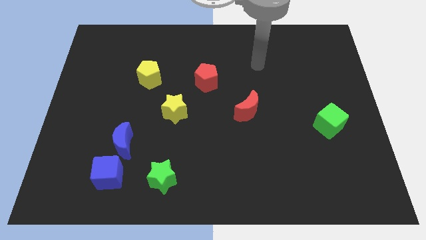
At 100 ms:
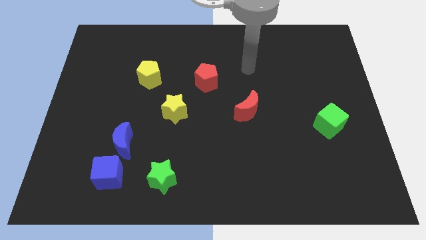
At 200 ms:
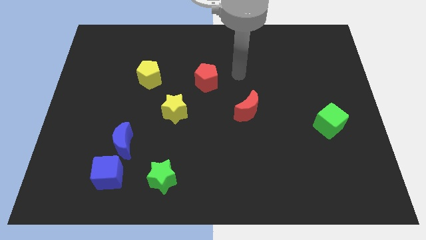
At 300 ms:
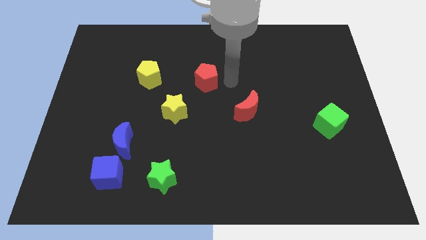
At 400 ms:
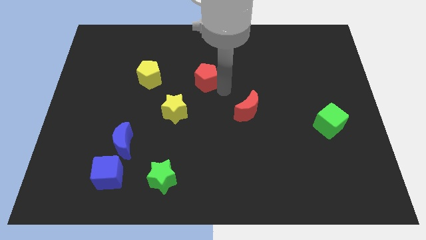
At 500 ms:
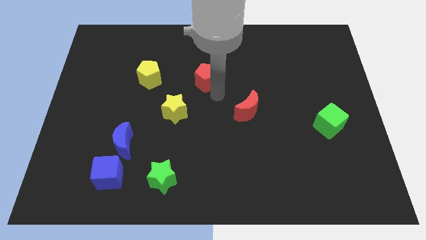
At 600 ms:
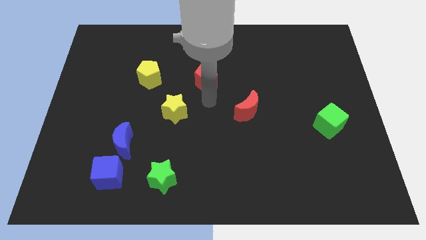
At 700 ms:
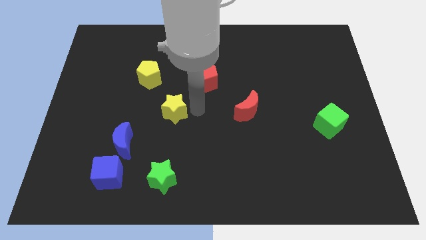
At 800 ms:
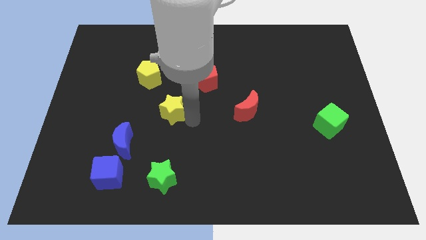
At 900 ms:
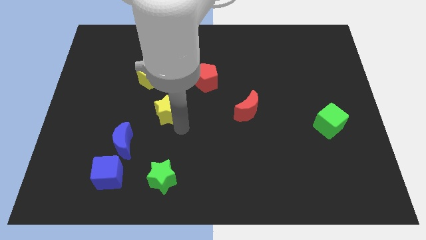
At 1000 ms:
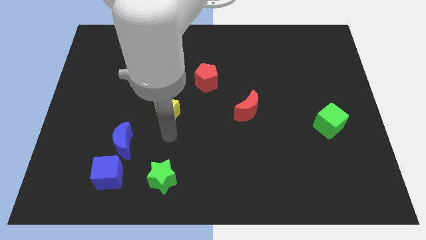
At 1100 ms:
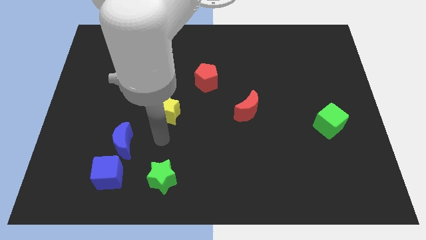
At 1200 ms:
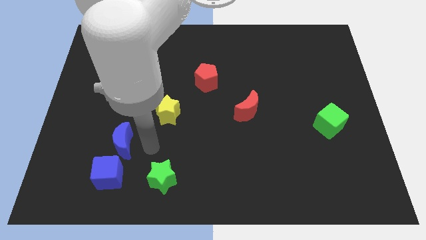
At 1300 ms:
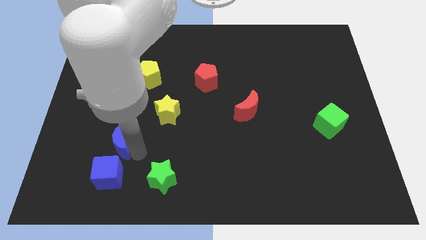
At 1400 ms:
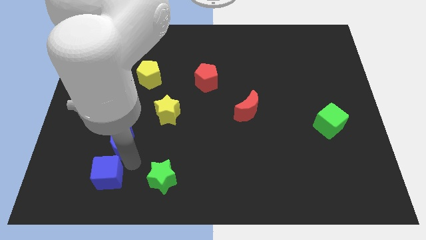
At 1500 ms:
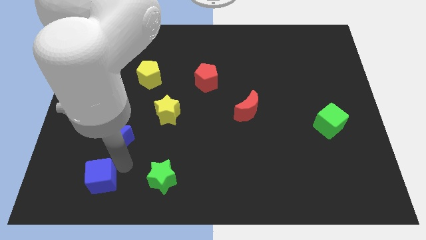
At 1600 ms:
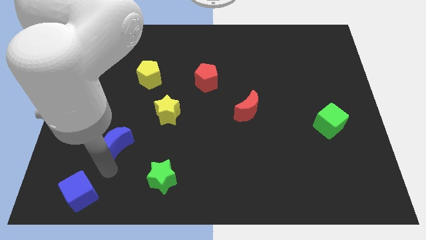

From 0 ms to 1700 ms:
pull the blue moon apart from the blue cube

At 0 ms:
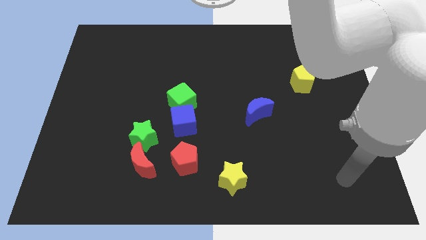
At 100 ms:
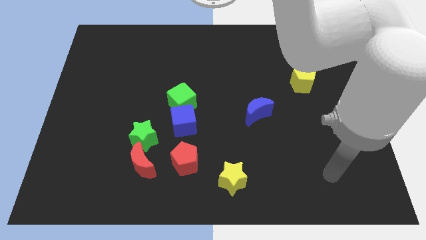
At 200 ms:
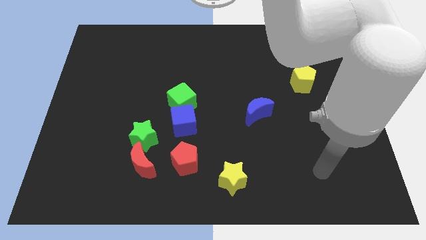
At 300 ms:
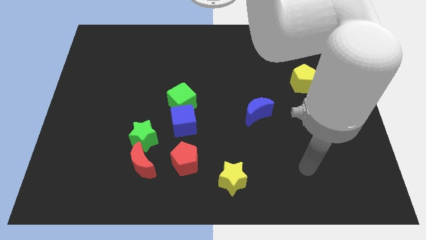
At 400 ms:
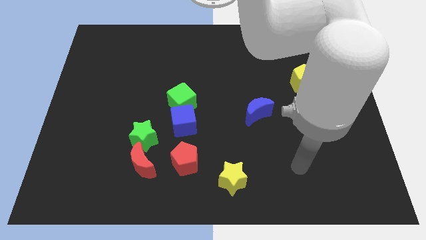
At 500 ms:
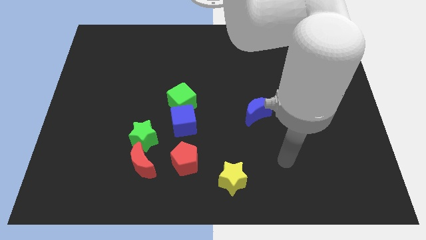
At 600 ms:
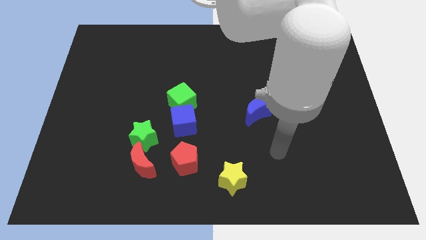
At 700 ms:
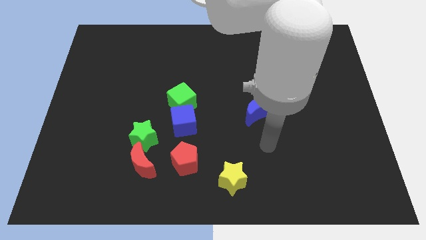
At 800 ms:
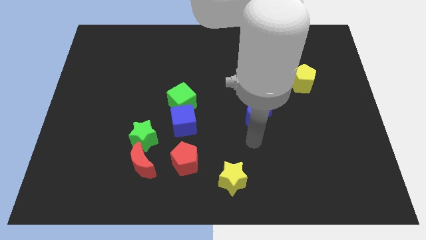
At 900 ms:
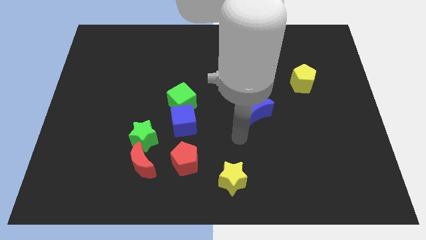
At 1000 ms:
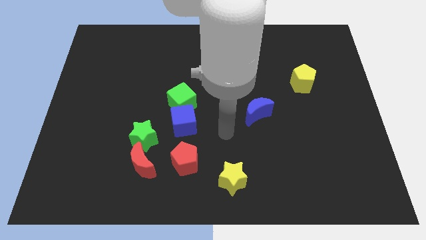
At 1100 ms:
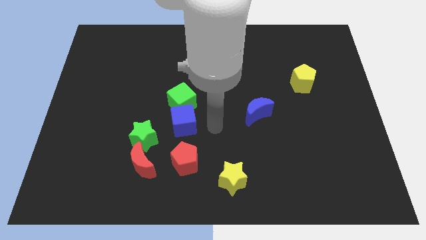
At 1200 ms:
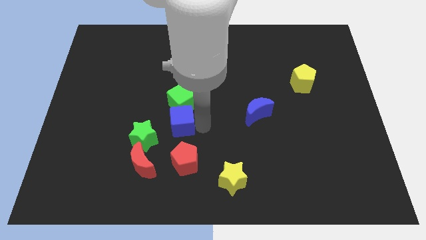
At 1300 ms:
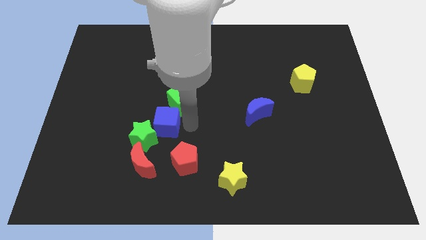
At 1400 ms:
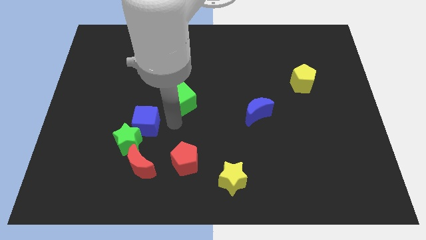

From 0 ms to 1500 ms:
pull the green cube apart from the blue cube

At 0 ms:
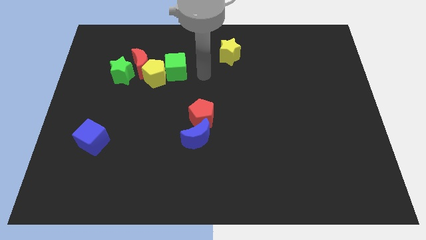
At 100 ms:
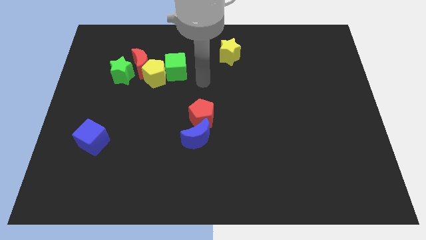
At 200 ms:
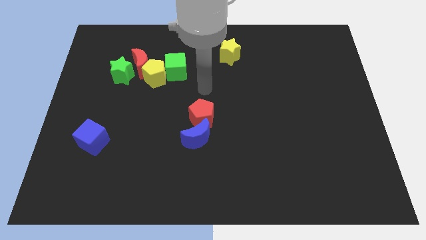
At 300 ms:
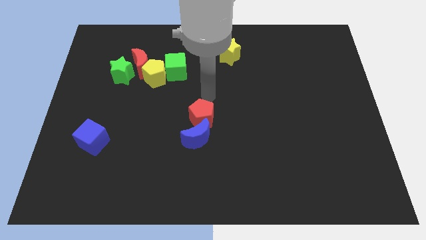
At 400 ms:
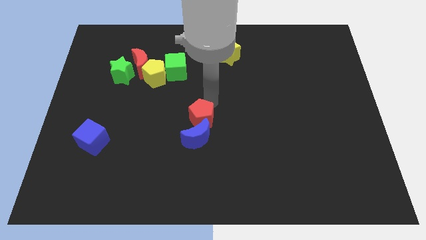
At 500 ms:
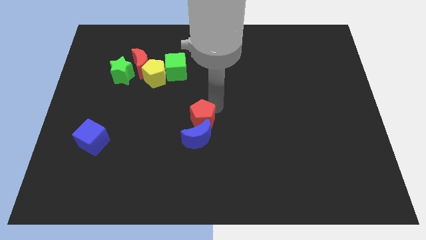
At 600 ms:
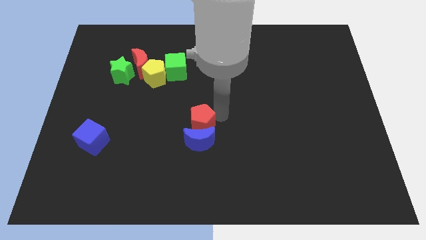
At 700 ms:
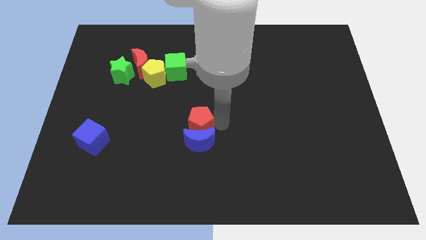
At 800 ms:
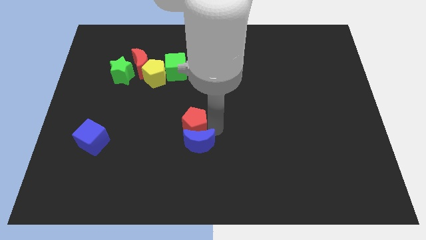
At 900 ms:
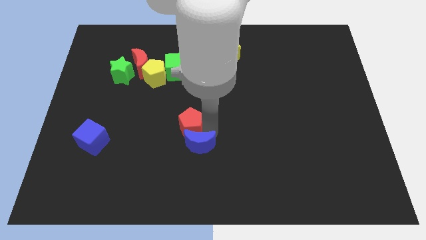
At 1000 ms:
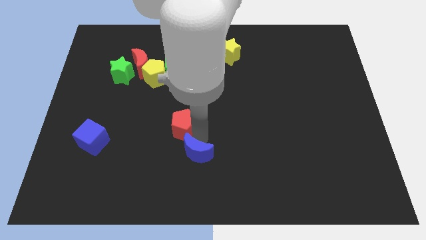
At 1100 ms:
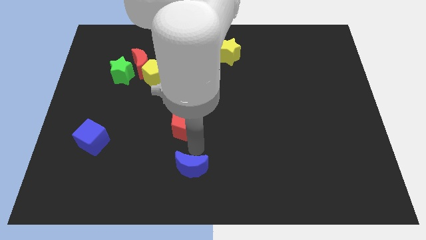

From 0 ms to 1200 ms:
pull the red pentagon apart from the blue moon

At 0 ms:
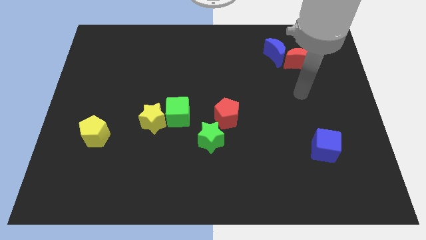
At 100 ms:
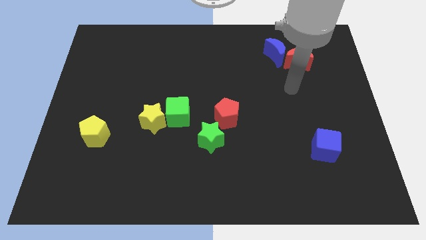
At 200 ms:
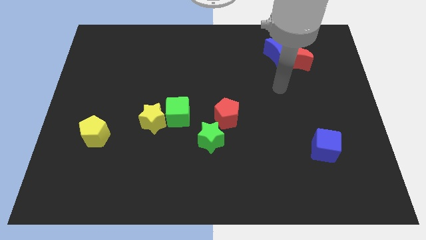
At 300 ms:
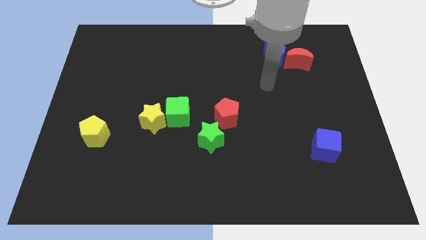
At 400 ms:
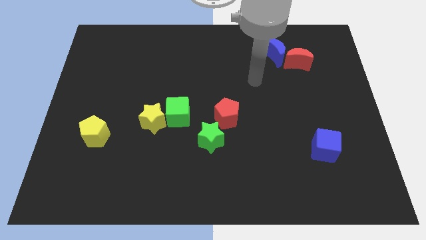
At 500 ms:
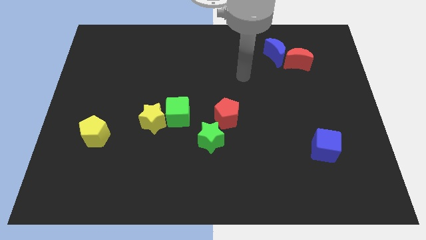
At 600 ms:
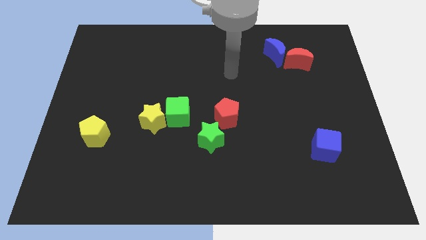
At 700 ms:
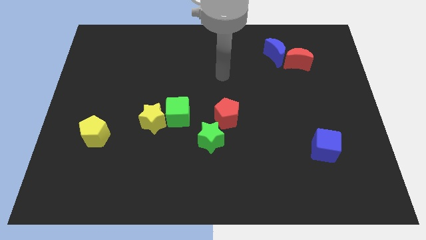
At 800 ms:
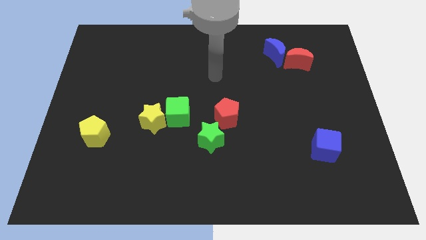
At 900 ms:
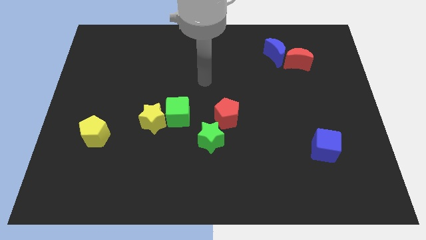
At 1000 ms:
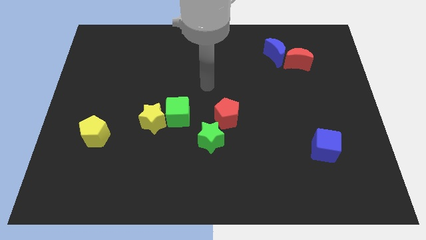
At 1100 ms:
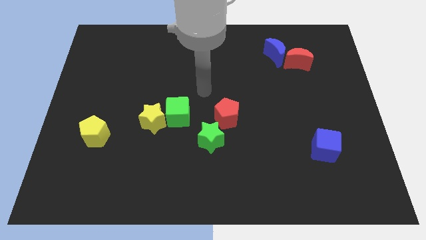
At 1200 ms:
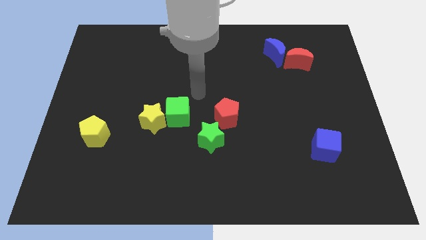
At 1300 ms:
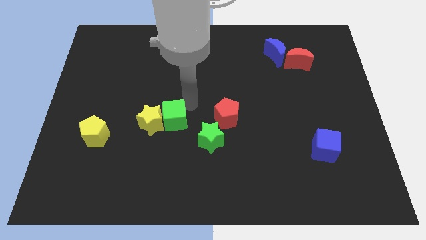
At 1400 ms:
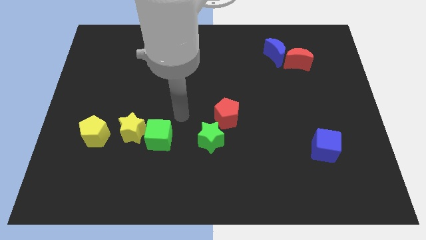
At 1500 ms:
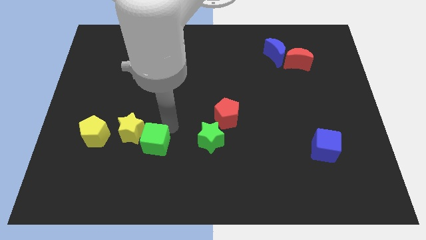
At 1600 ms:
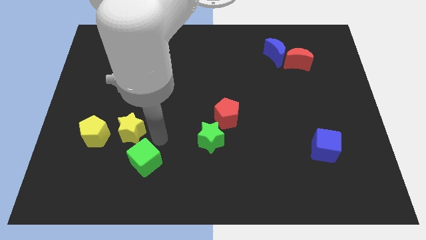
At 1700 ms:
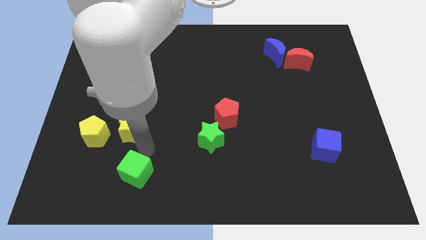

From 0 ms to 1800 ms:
pull the yellow star apart from the green cube

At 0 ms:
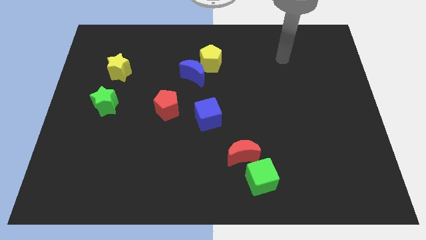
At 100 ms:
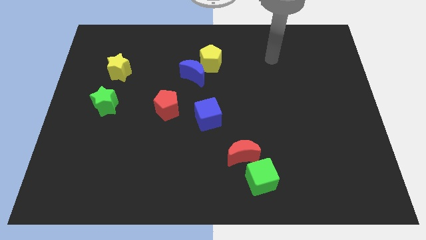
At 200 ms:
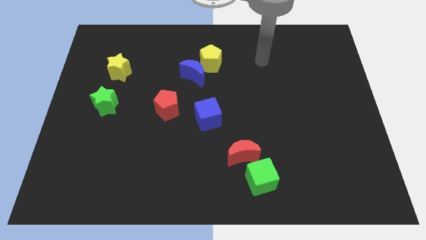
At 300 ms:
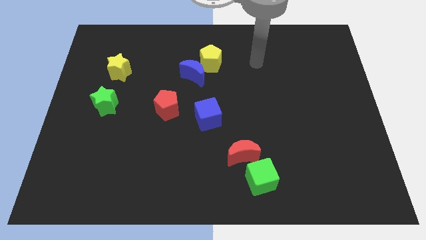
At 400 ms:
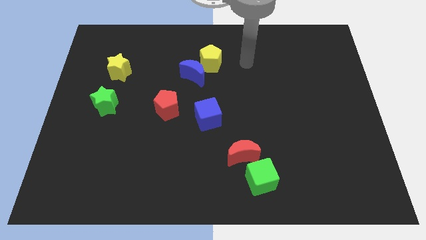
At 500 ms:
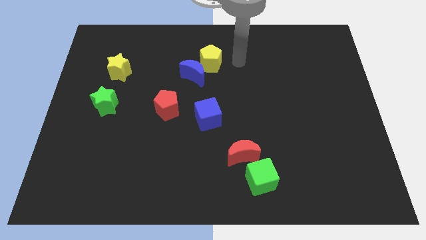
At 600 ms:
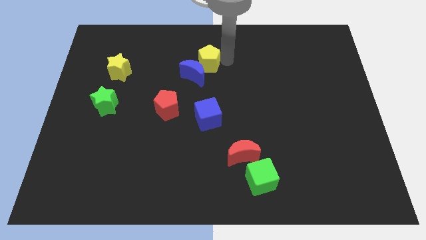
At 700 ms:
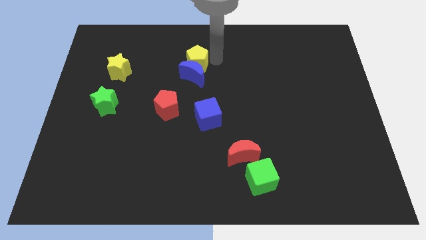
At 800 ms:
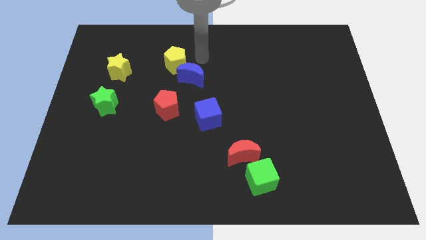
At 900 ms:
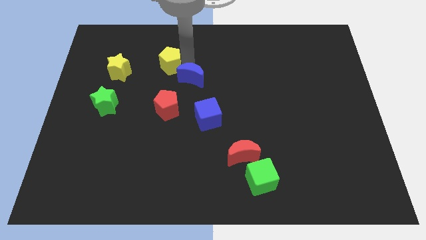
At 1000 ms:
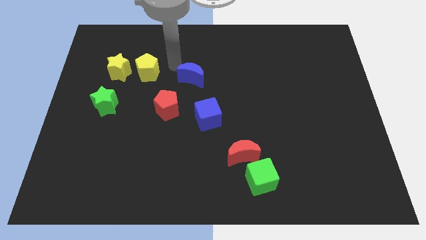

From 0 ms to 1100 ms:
pull the blue moon apart from the yellow pentagon

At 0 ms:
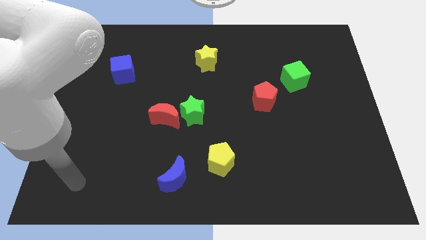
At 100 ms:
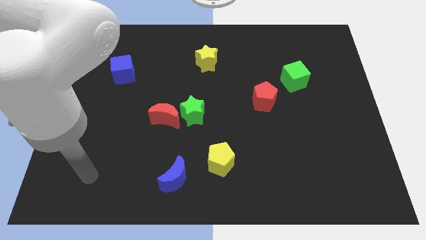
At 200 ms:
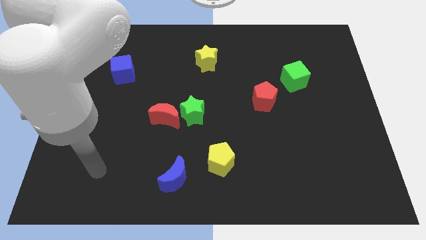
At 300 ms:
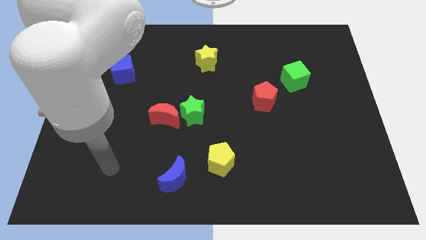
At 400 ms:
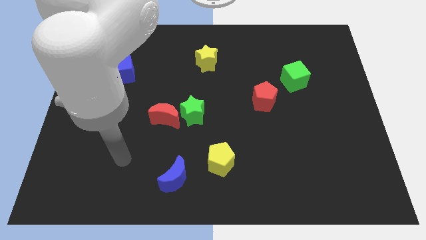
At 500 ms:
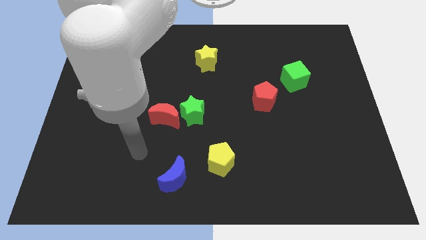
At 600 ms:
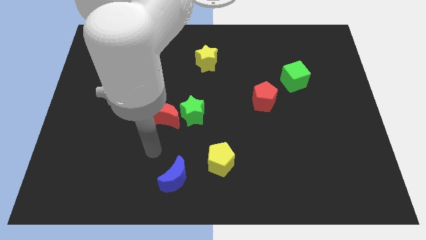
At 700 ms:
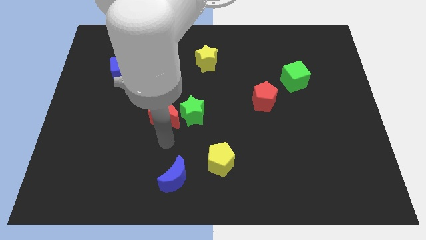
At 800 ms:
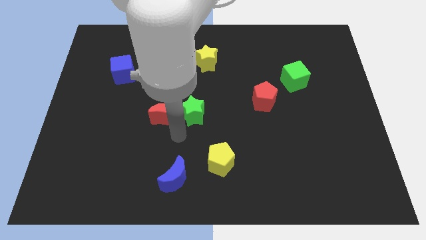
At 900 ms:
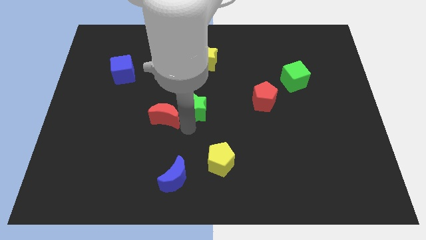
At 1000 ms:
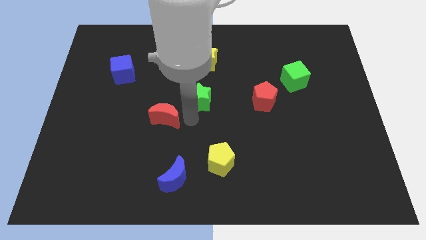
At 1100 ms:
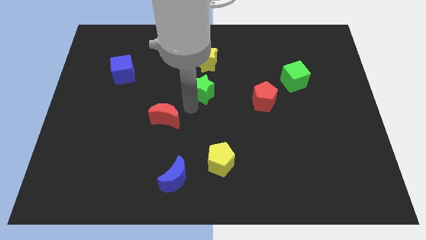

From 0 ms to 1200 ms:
move the red moon away from the green star

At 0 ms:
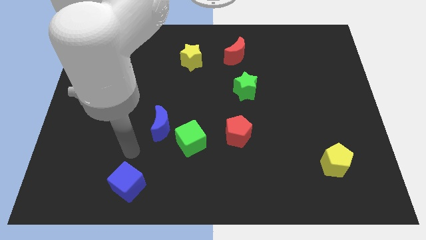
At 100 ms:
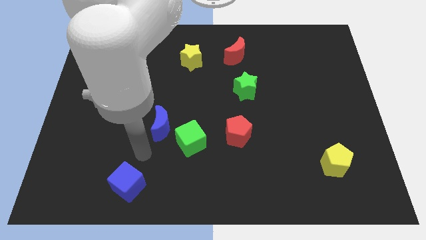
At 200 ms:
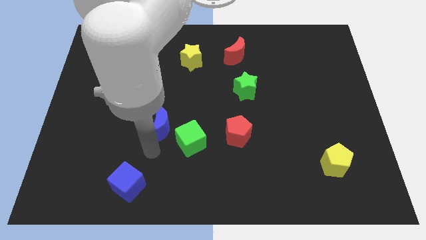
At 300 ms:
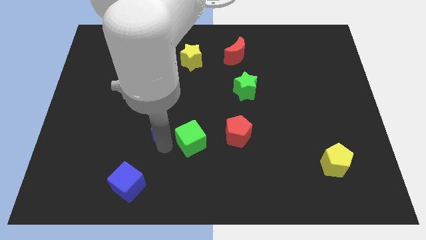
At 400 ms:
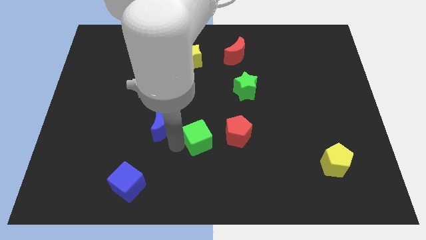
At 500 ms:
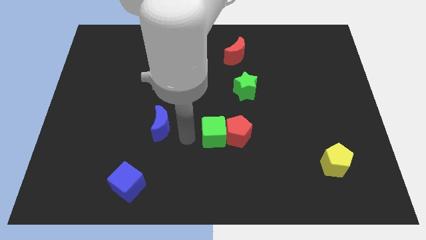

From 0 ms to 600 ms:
separate the blue moon from the green cube

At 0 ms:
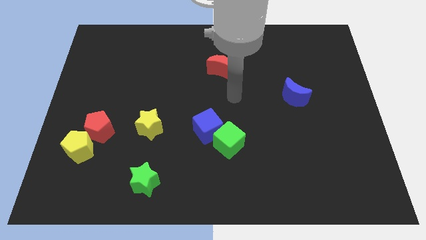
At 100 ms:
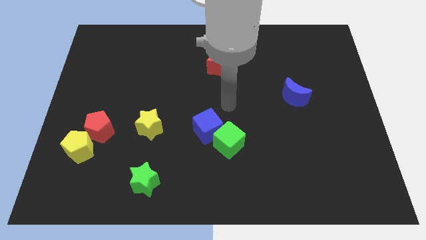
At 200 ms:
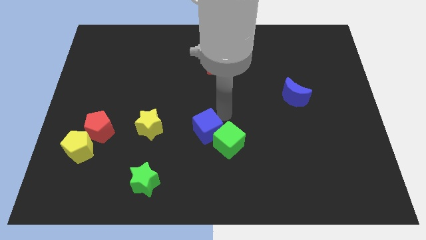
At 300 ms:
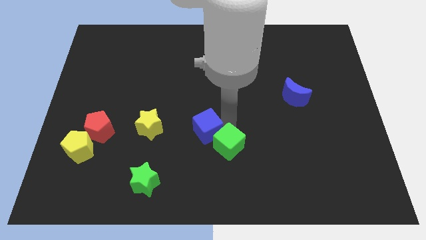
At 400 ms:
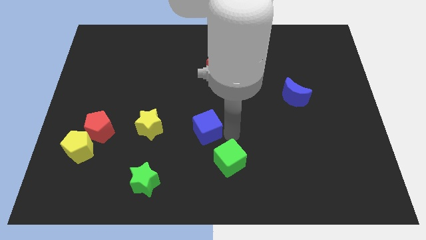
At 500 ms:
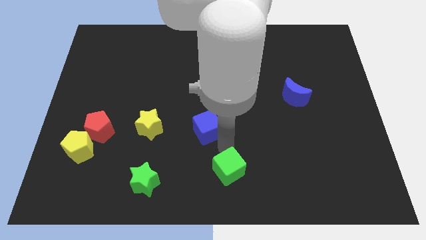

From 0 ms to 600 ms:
separate the blue cube from the green cube
